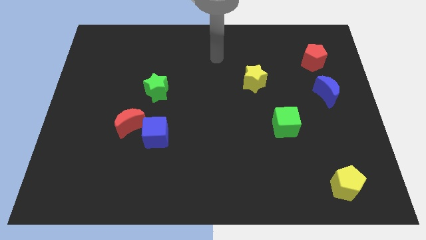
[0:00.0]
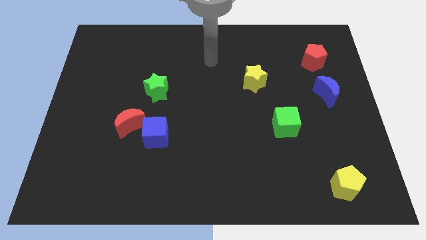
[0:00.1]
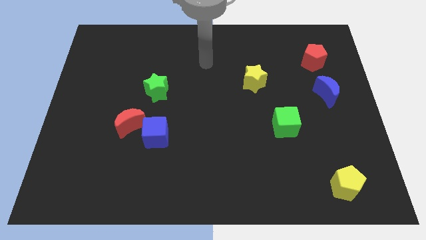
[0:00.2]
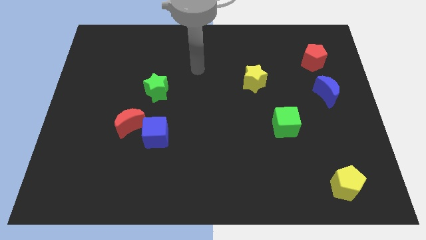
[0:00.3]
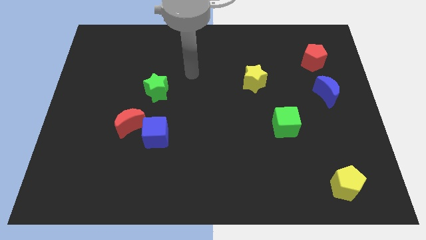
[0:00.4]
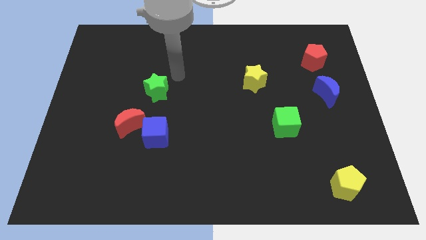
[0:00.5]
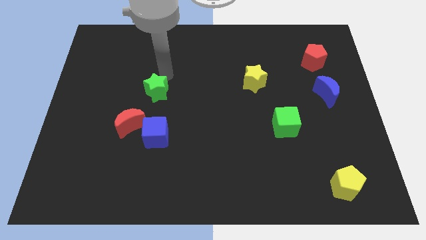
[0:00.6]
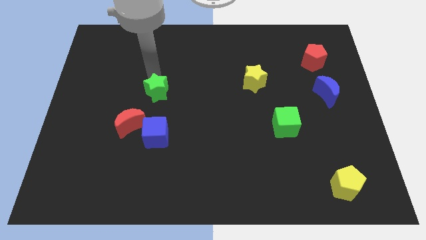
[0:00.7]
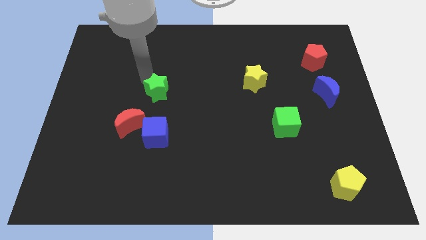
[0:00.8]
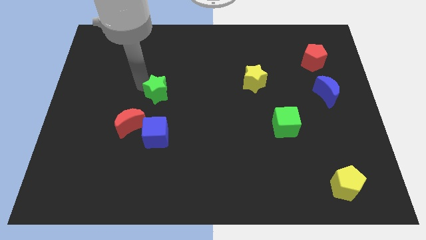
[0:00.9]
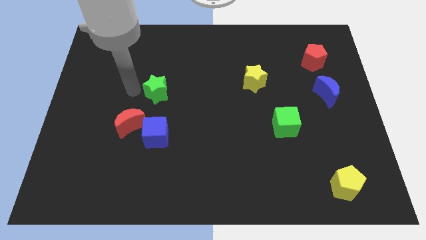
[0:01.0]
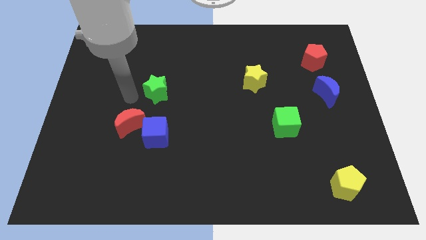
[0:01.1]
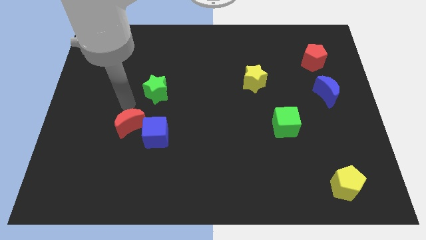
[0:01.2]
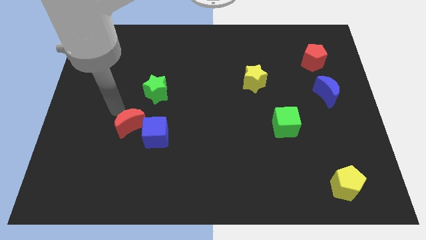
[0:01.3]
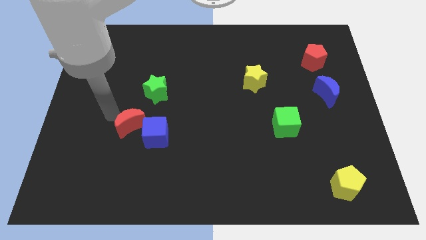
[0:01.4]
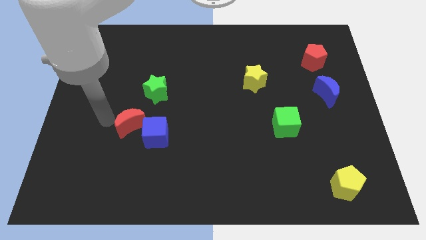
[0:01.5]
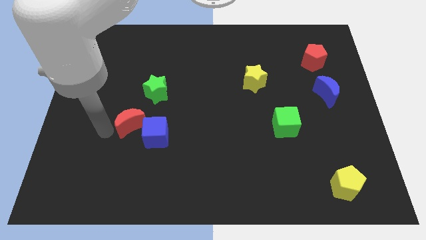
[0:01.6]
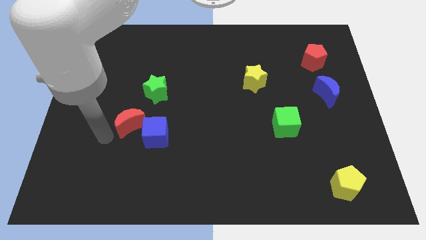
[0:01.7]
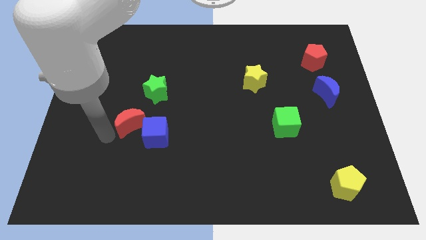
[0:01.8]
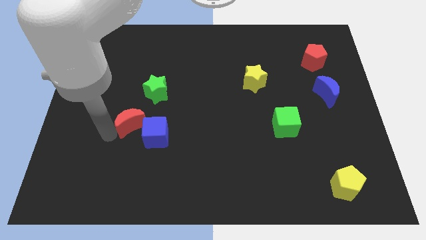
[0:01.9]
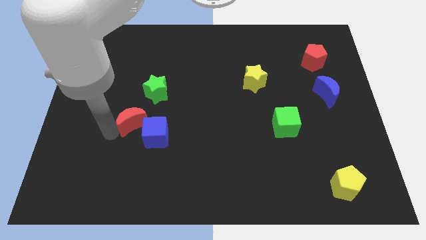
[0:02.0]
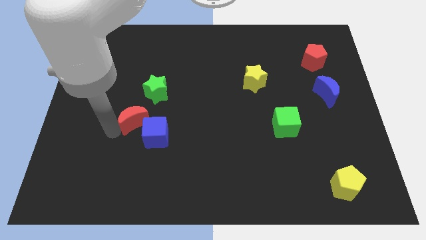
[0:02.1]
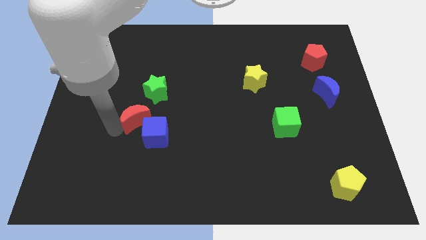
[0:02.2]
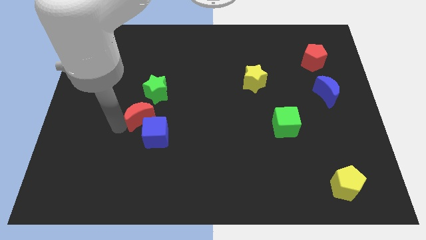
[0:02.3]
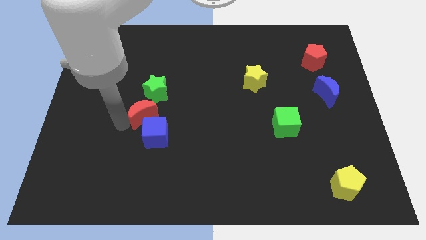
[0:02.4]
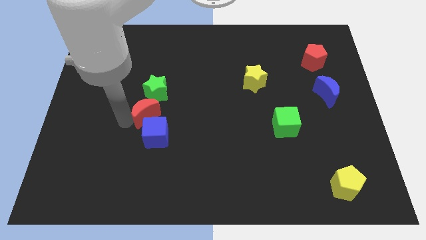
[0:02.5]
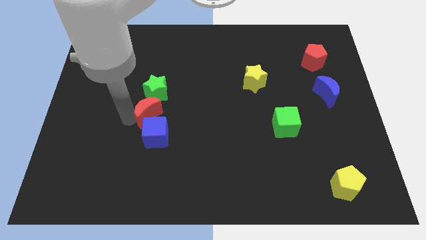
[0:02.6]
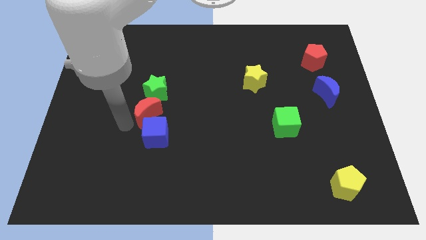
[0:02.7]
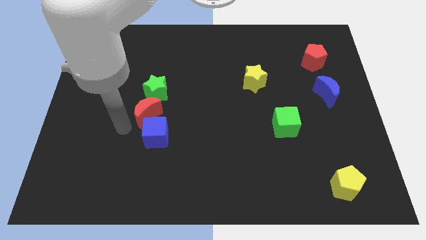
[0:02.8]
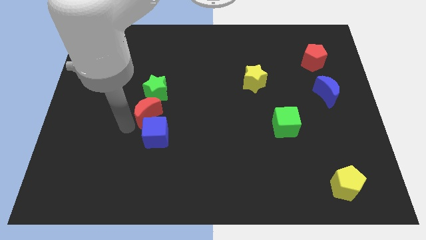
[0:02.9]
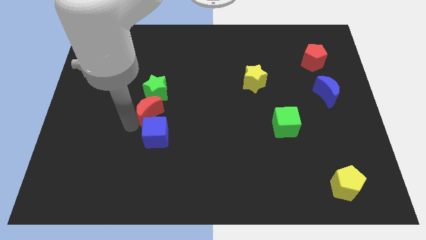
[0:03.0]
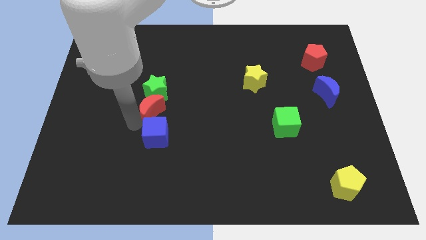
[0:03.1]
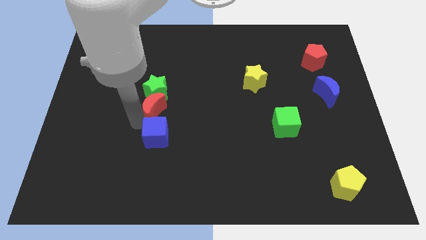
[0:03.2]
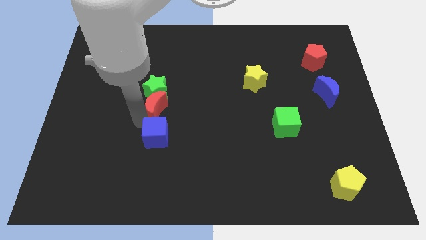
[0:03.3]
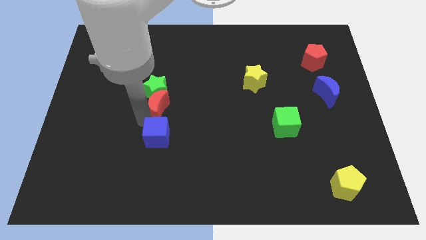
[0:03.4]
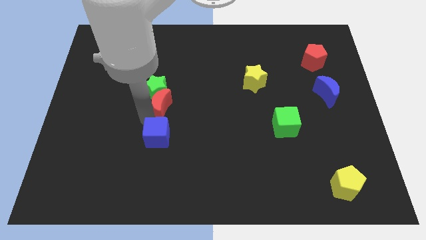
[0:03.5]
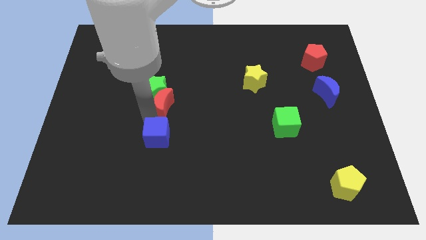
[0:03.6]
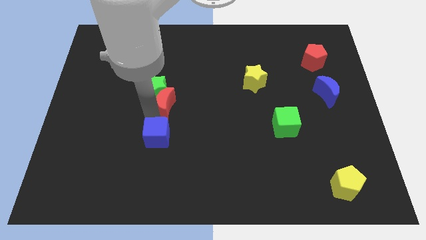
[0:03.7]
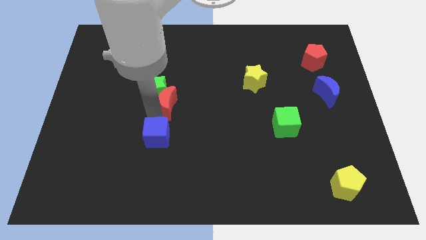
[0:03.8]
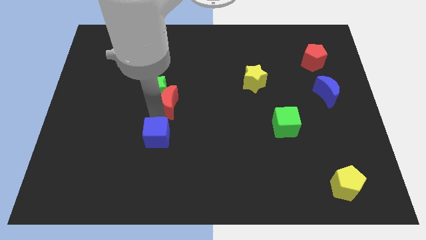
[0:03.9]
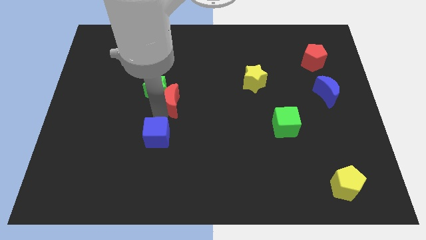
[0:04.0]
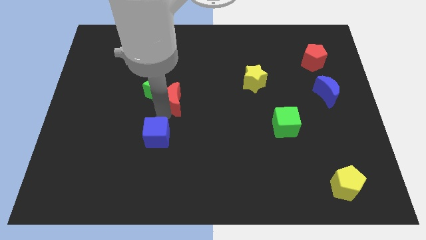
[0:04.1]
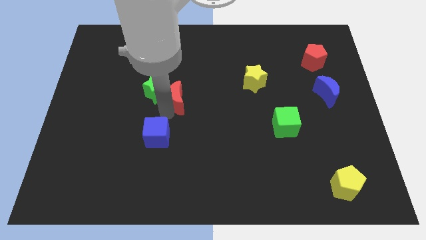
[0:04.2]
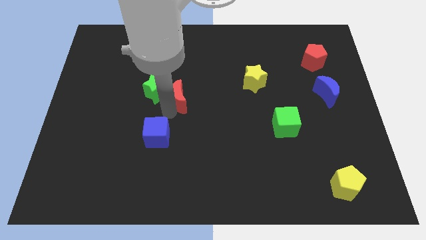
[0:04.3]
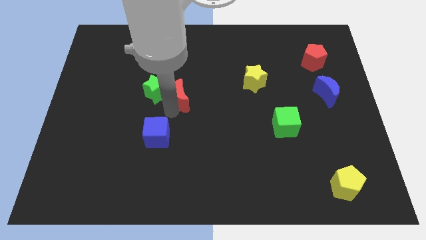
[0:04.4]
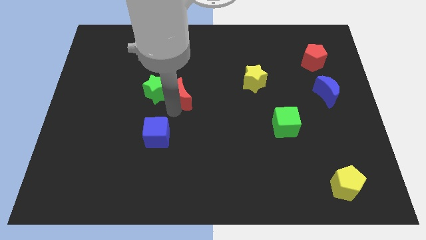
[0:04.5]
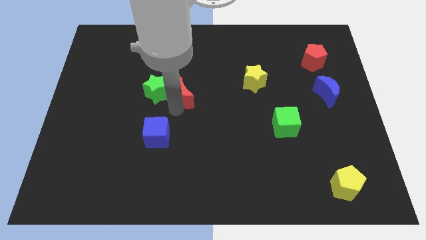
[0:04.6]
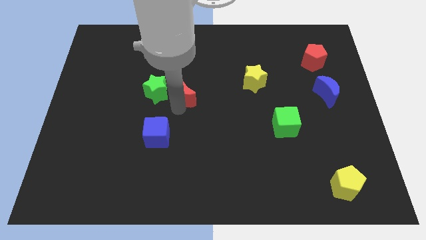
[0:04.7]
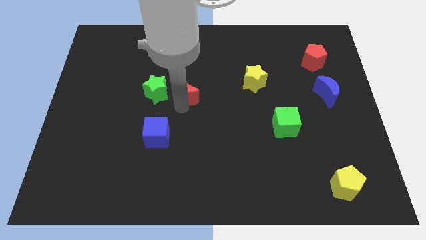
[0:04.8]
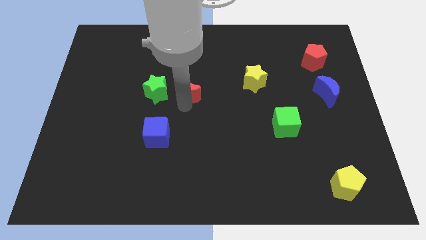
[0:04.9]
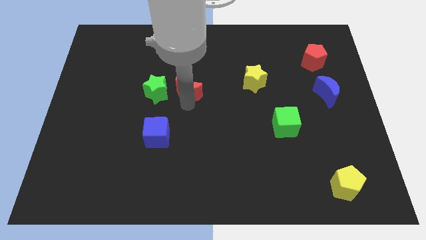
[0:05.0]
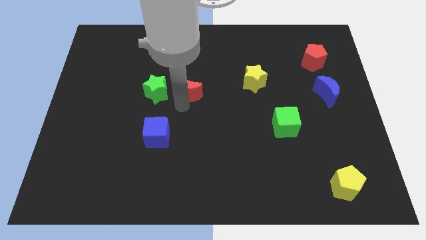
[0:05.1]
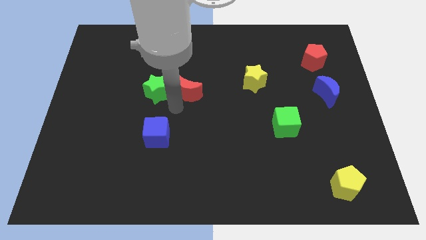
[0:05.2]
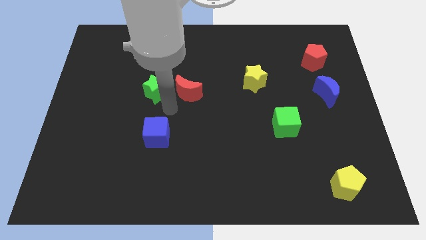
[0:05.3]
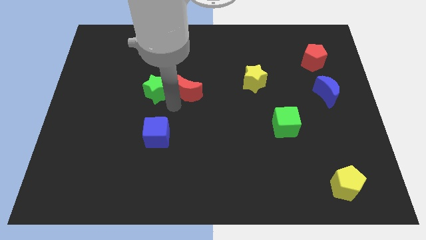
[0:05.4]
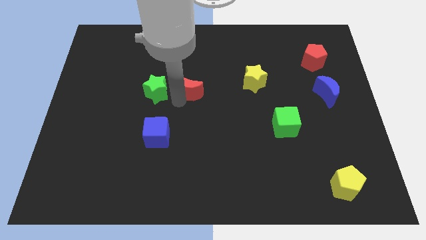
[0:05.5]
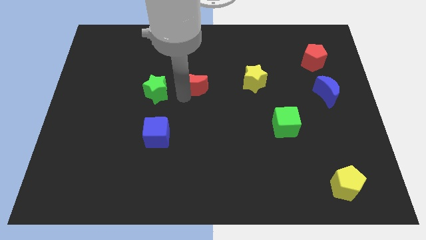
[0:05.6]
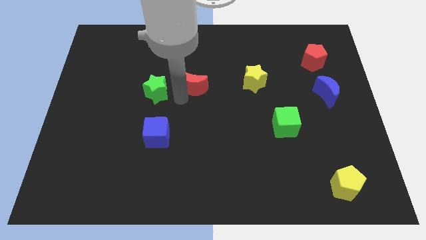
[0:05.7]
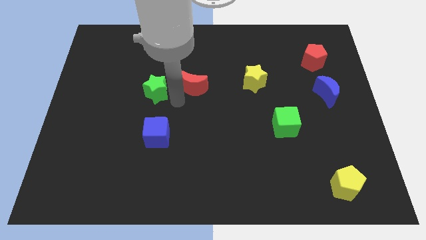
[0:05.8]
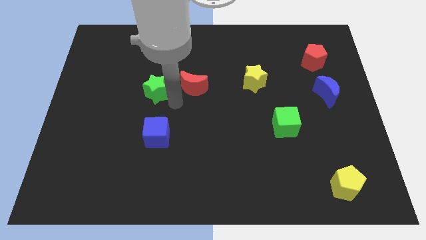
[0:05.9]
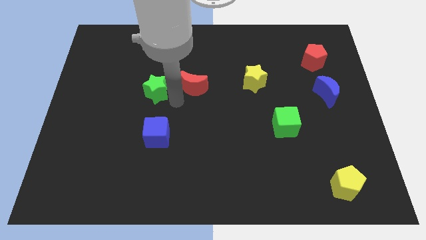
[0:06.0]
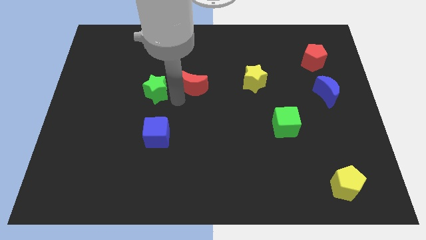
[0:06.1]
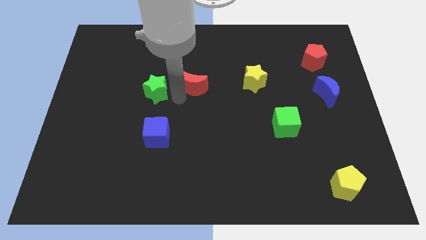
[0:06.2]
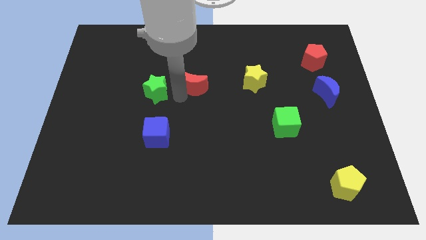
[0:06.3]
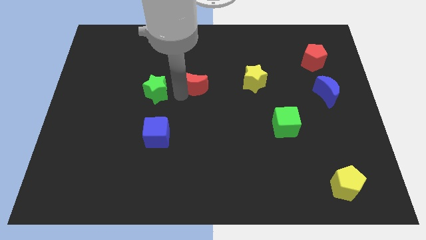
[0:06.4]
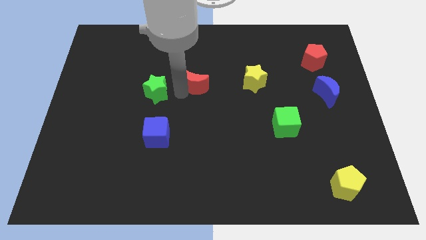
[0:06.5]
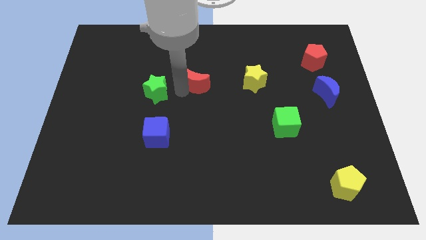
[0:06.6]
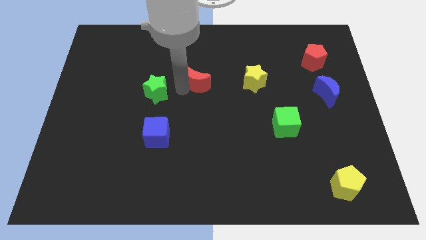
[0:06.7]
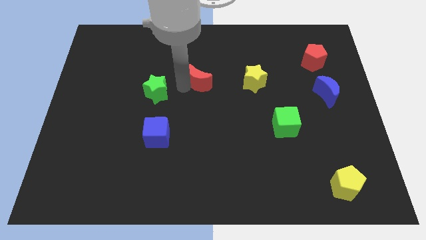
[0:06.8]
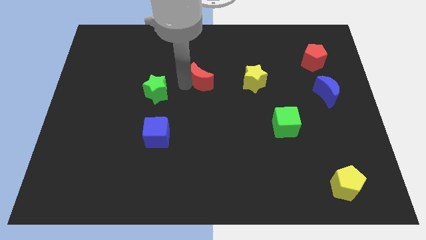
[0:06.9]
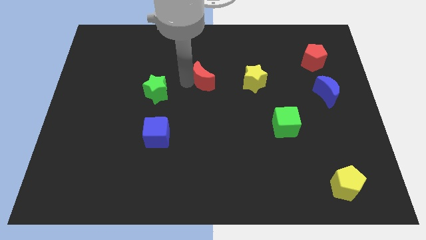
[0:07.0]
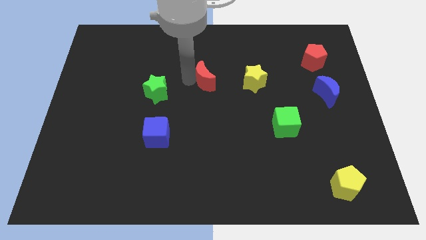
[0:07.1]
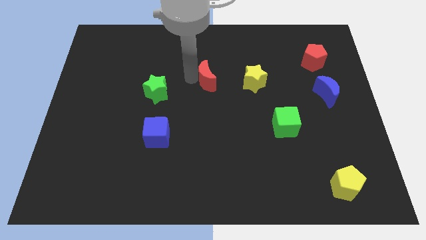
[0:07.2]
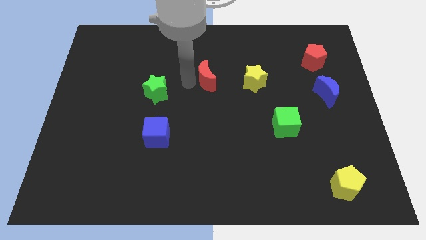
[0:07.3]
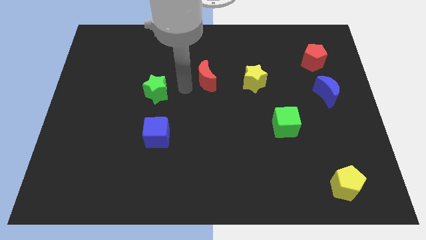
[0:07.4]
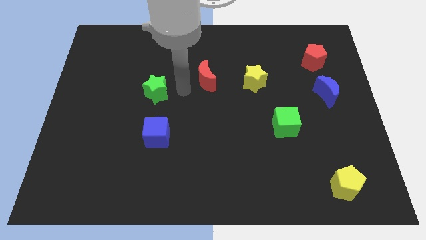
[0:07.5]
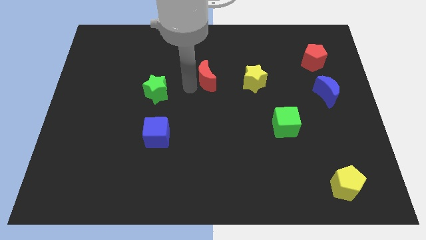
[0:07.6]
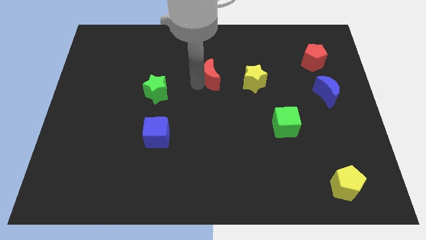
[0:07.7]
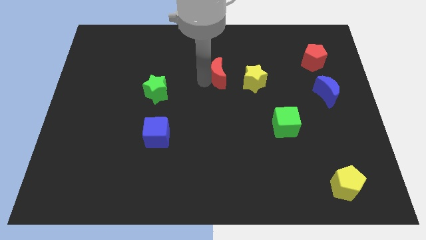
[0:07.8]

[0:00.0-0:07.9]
slide the red moon to the top left side of the yellow star
